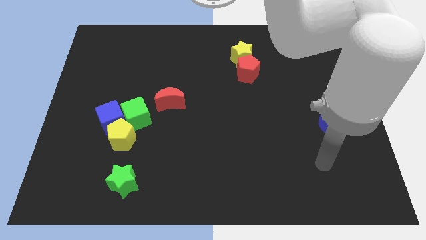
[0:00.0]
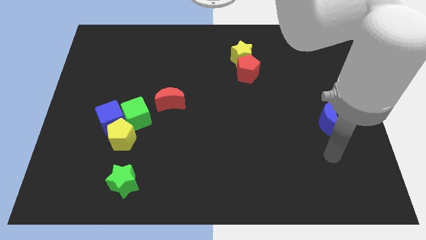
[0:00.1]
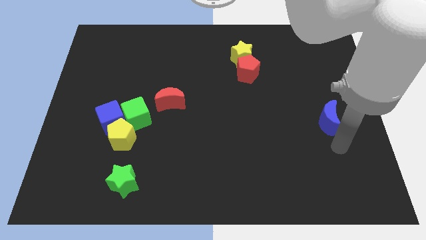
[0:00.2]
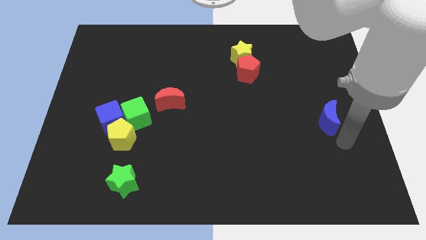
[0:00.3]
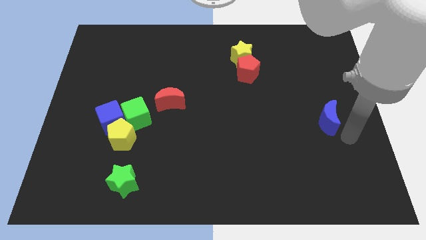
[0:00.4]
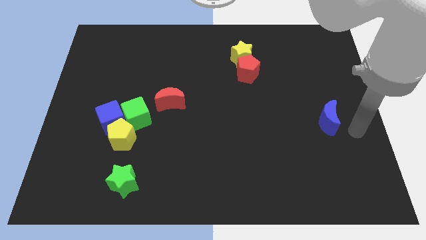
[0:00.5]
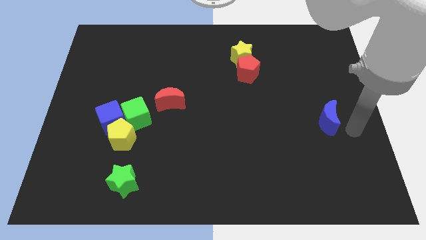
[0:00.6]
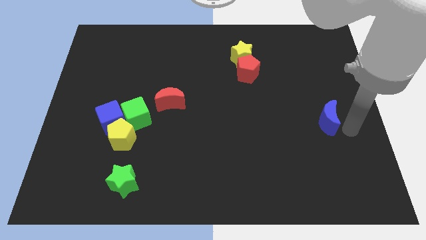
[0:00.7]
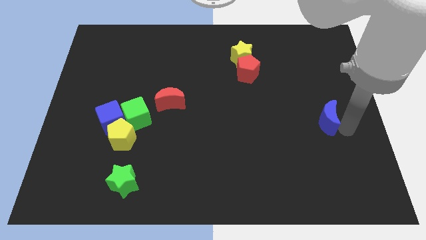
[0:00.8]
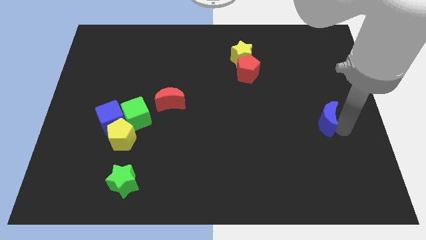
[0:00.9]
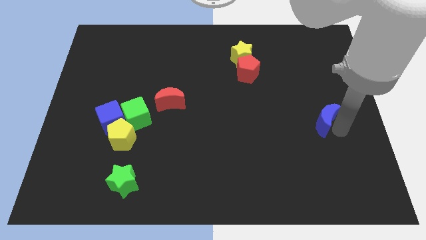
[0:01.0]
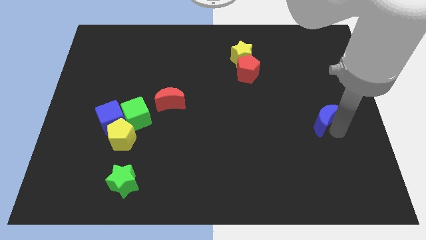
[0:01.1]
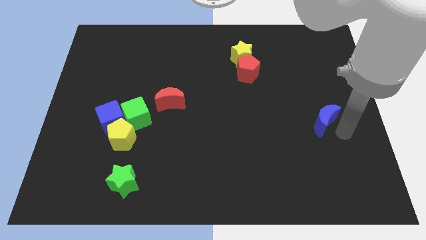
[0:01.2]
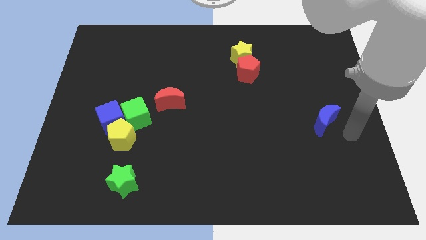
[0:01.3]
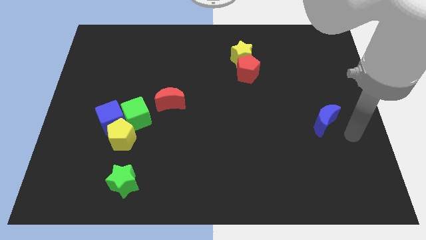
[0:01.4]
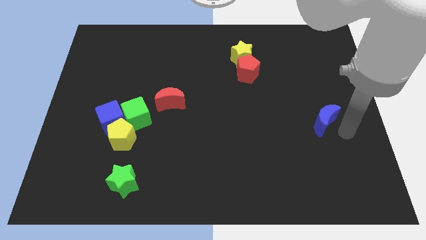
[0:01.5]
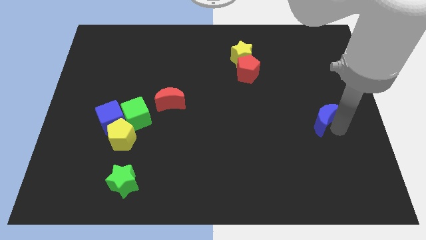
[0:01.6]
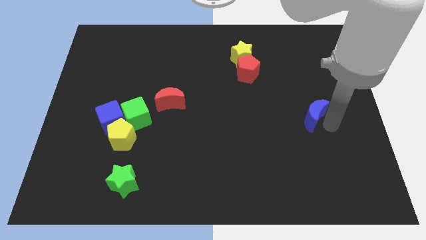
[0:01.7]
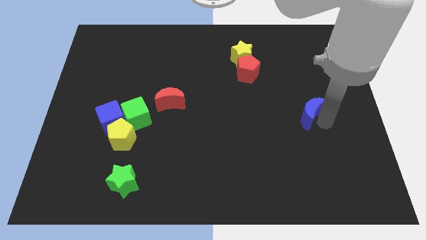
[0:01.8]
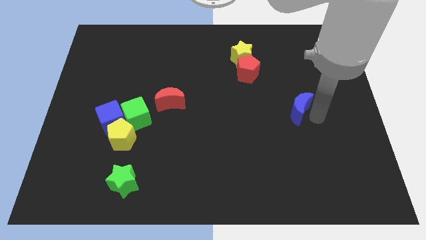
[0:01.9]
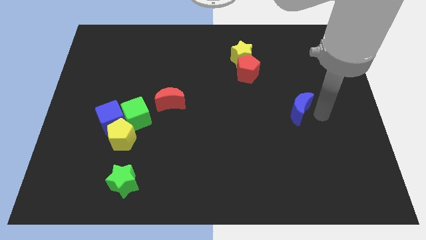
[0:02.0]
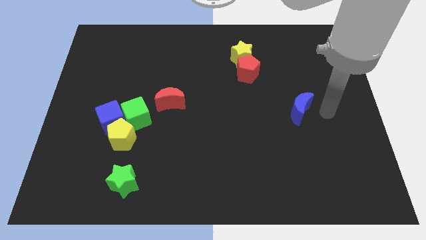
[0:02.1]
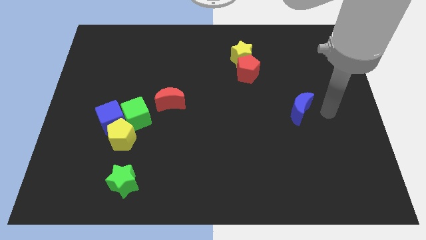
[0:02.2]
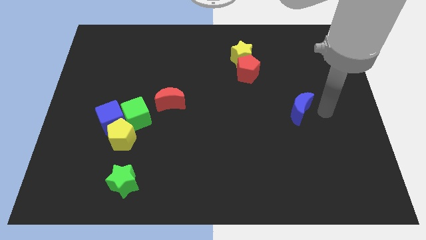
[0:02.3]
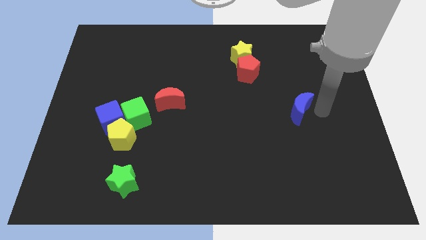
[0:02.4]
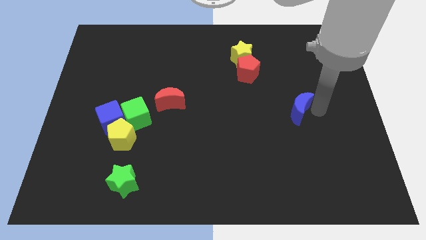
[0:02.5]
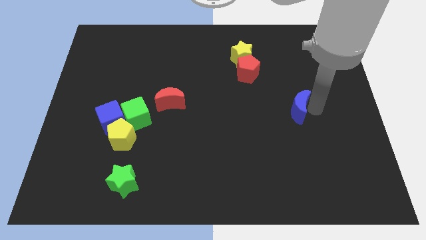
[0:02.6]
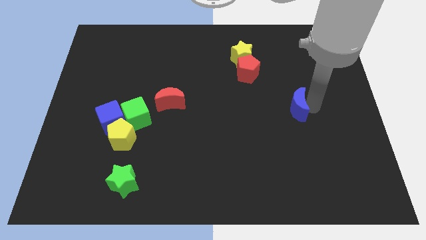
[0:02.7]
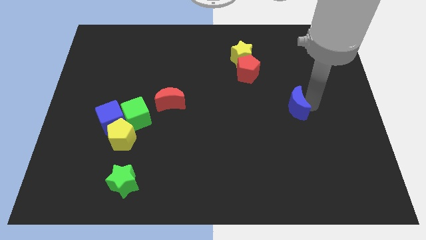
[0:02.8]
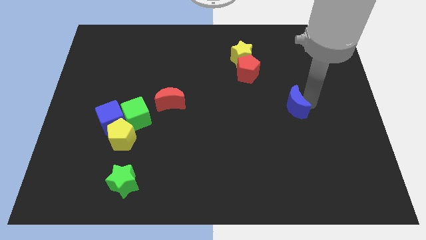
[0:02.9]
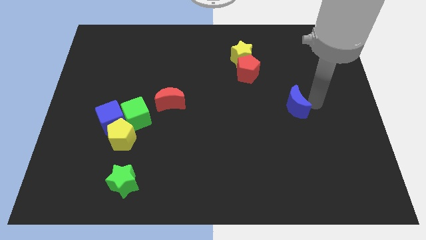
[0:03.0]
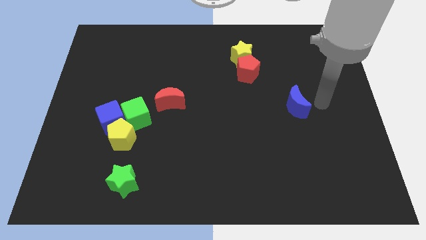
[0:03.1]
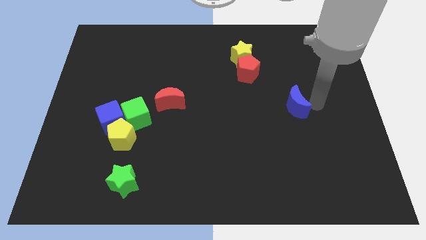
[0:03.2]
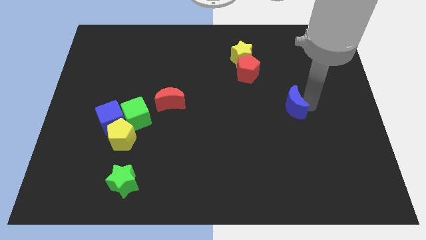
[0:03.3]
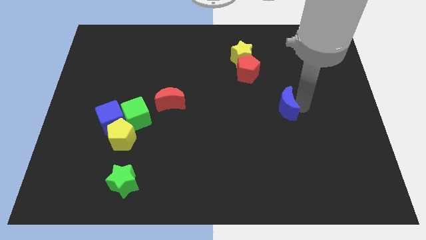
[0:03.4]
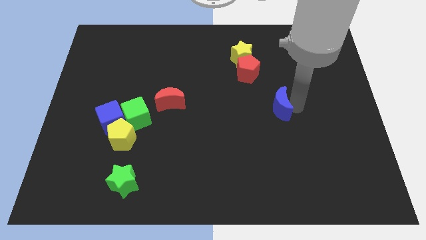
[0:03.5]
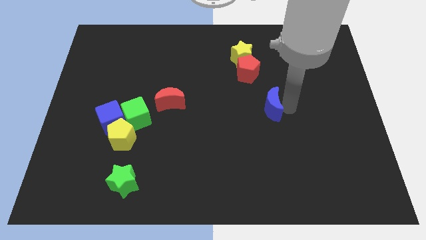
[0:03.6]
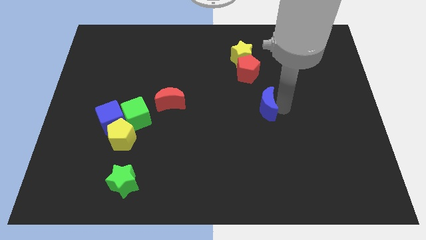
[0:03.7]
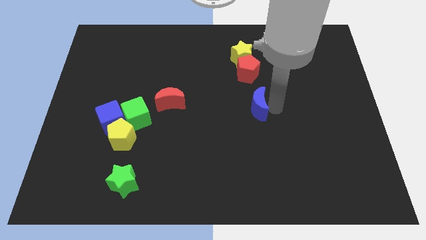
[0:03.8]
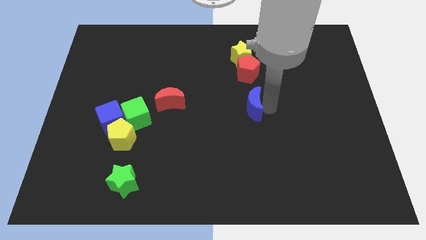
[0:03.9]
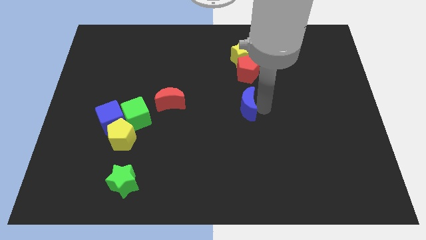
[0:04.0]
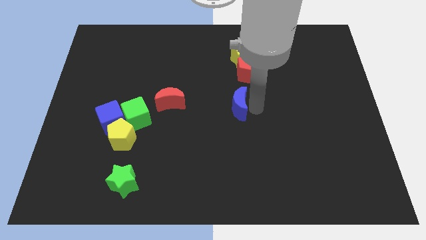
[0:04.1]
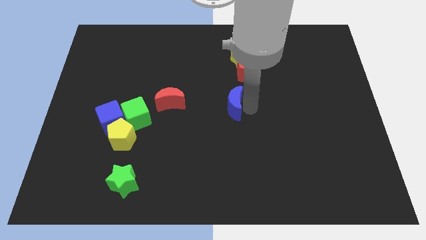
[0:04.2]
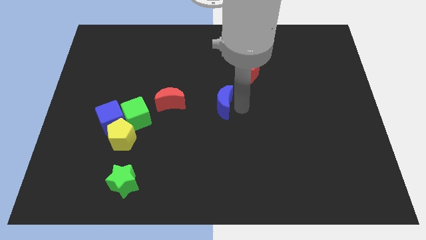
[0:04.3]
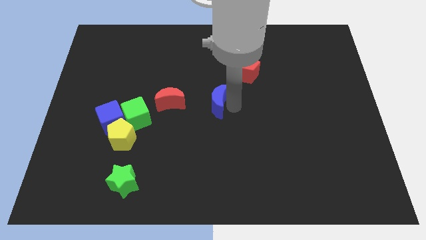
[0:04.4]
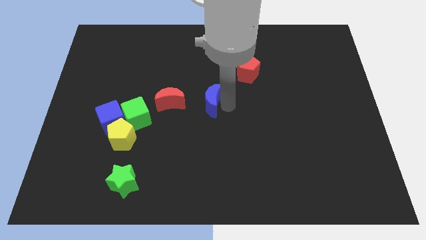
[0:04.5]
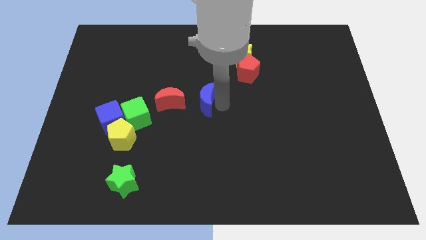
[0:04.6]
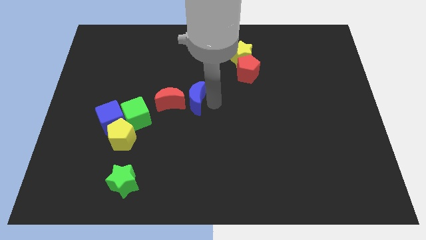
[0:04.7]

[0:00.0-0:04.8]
slide the blue moon towards the red moon

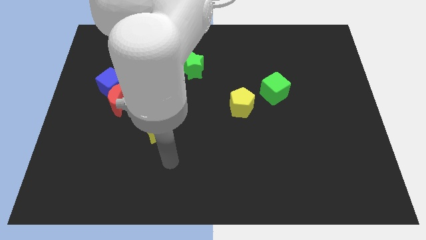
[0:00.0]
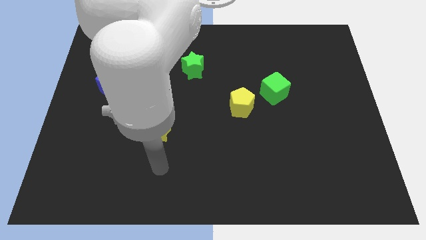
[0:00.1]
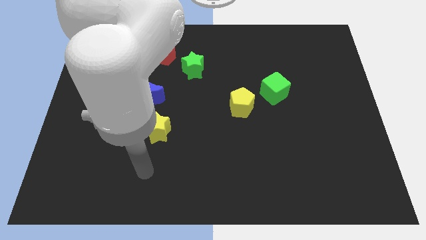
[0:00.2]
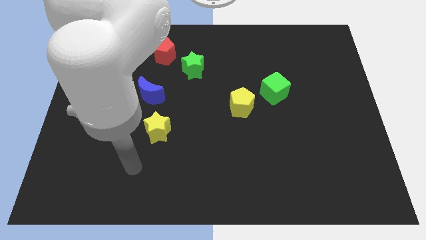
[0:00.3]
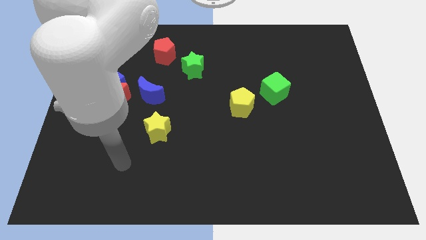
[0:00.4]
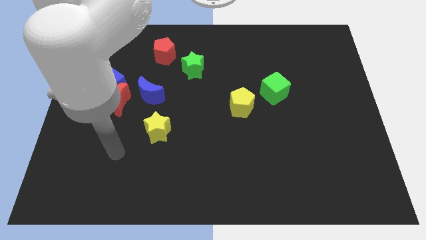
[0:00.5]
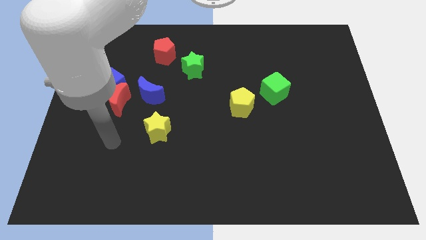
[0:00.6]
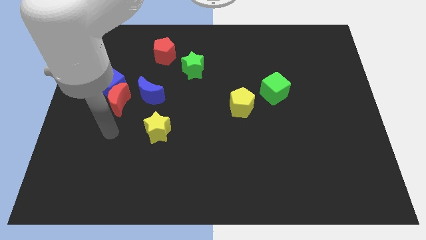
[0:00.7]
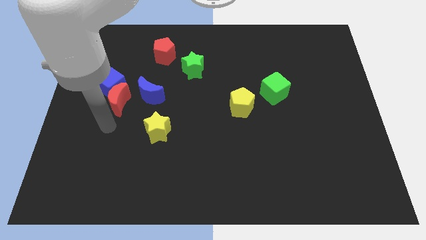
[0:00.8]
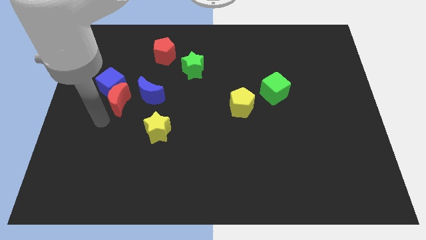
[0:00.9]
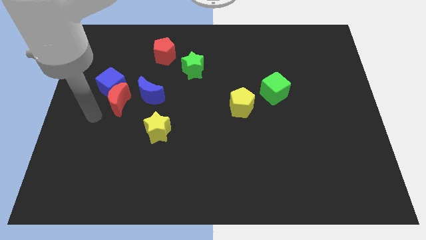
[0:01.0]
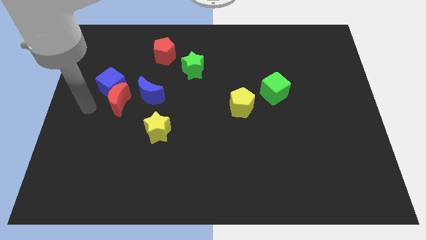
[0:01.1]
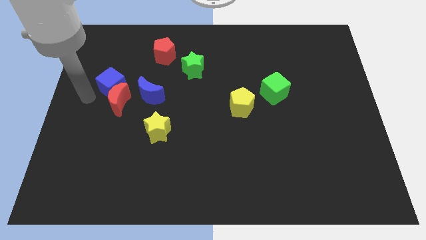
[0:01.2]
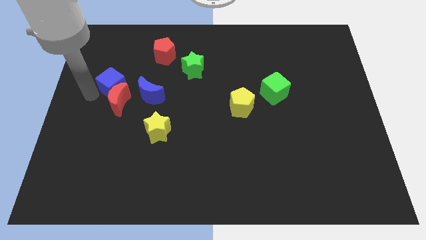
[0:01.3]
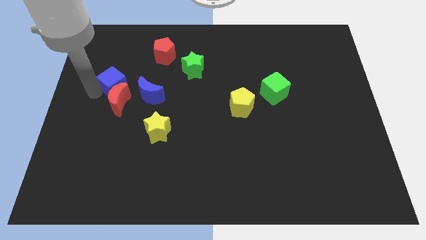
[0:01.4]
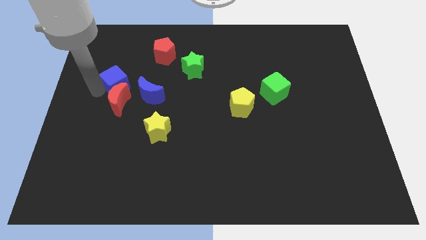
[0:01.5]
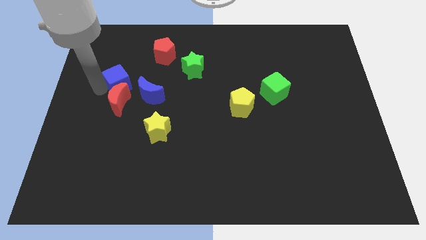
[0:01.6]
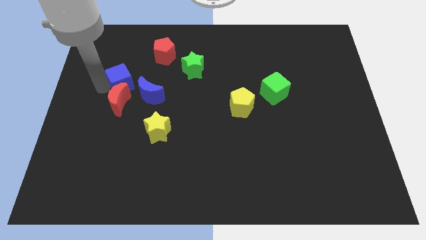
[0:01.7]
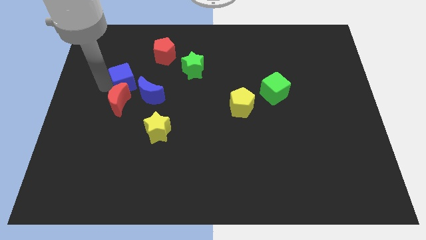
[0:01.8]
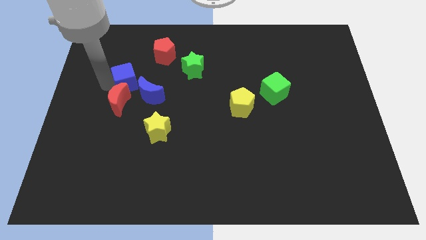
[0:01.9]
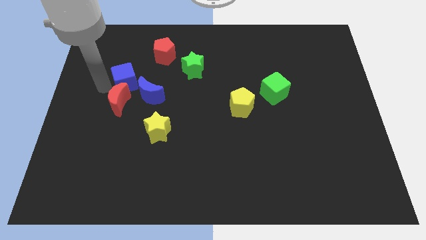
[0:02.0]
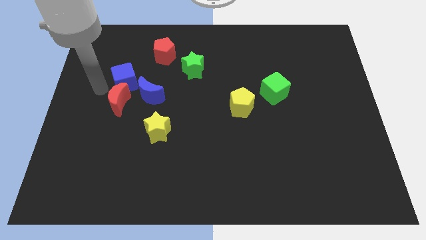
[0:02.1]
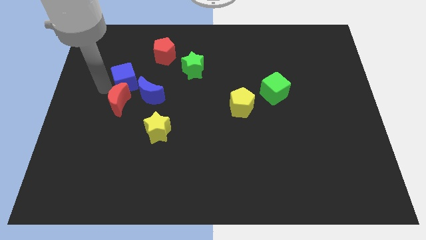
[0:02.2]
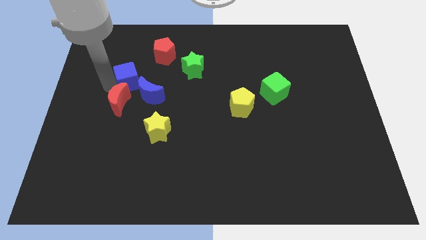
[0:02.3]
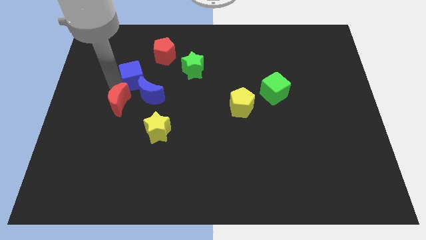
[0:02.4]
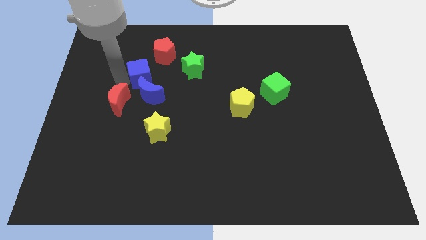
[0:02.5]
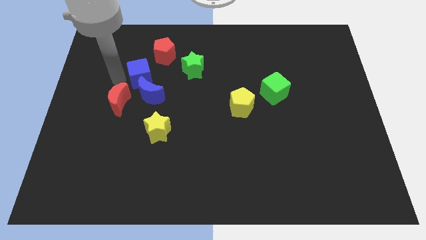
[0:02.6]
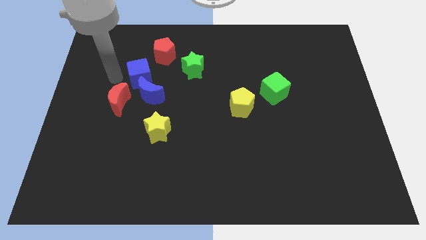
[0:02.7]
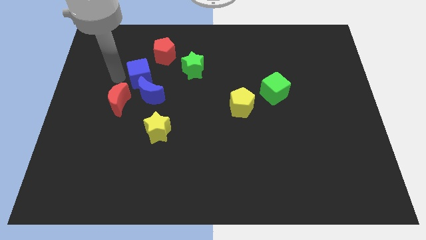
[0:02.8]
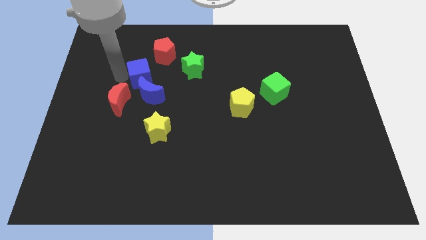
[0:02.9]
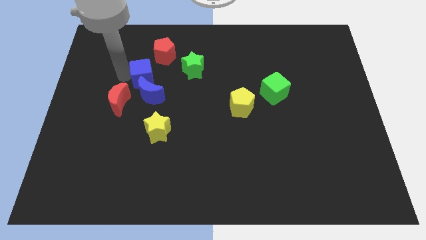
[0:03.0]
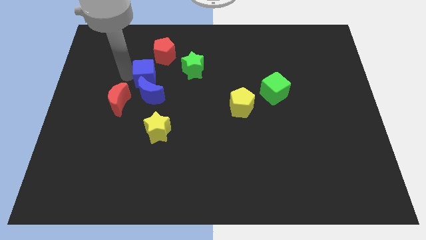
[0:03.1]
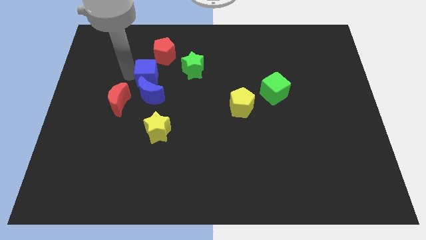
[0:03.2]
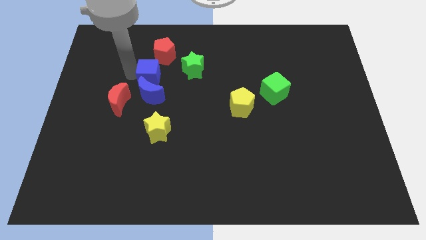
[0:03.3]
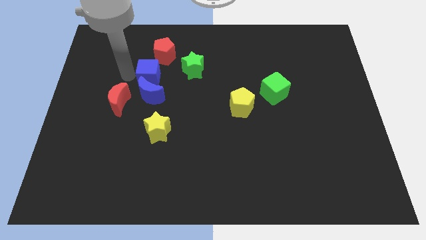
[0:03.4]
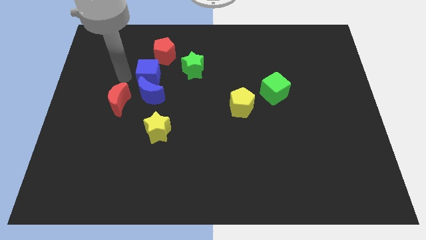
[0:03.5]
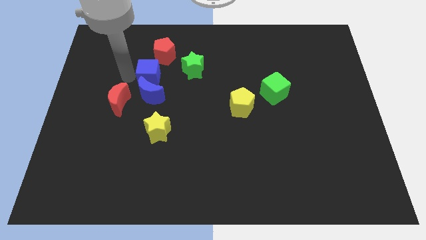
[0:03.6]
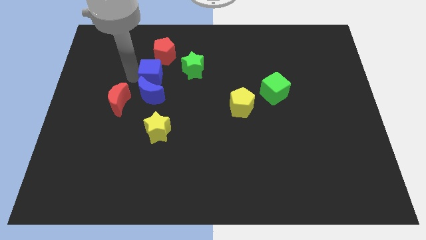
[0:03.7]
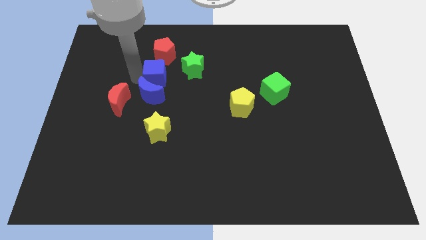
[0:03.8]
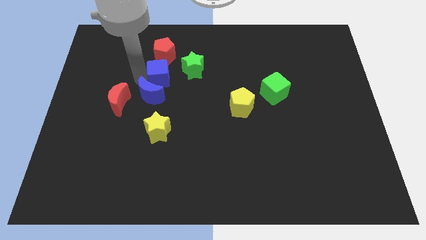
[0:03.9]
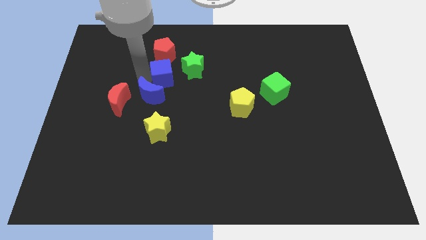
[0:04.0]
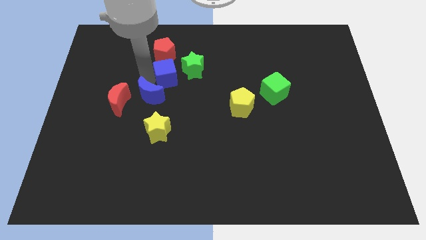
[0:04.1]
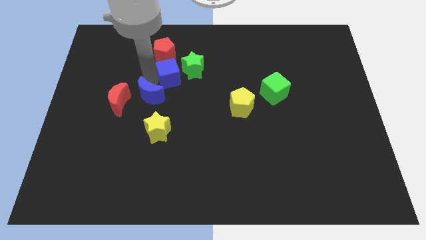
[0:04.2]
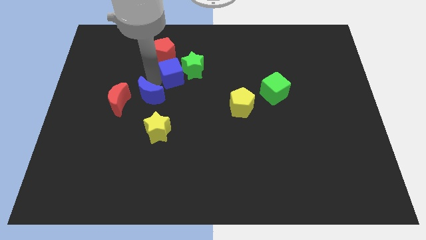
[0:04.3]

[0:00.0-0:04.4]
move the blue cube close to the green star
